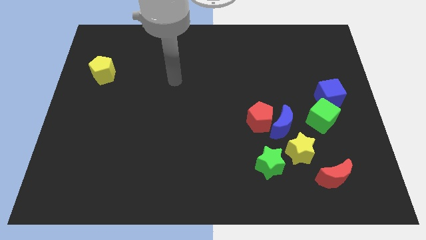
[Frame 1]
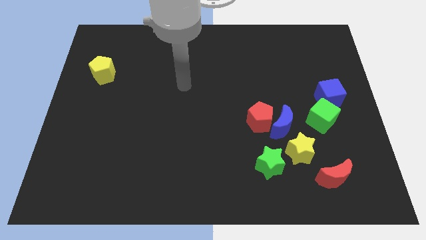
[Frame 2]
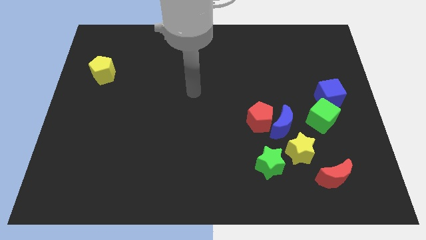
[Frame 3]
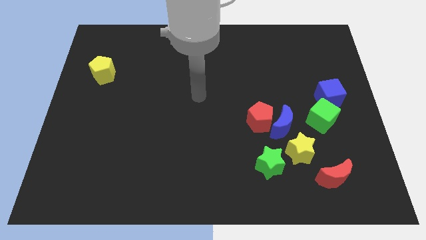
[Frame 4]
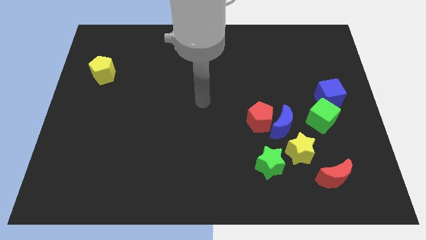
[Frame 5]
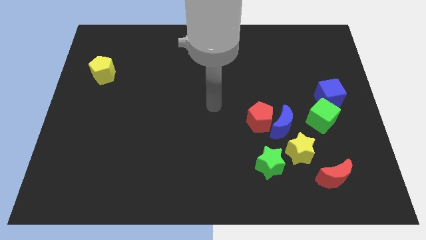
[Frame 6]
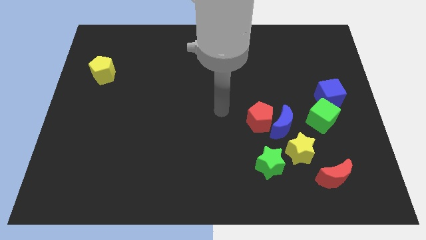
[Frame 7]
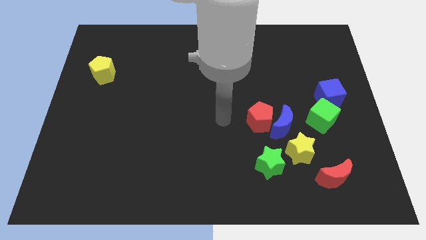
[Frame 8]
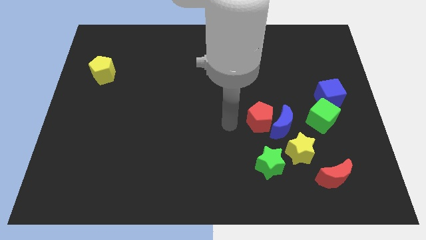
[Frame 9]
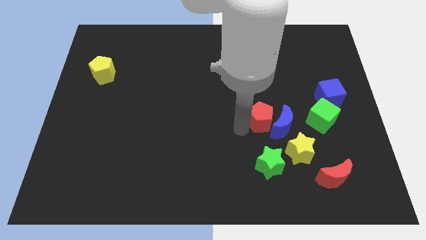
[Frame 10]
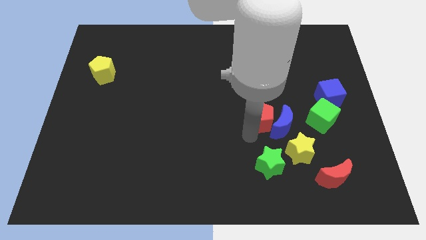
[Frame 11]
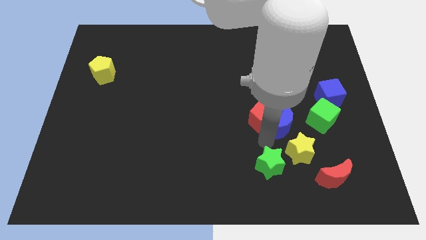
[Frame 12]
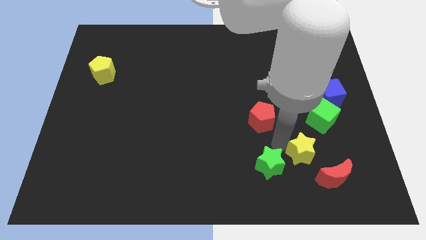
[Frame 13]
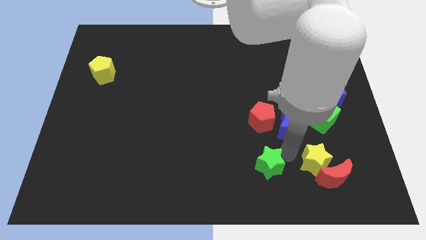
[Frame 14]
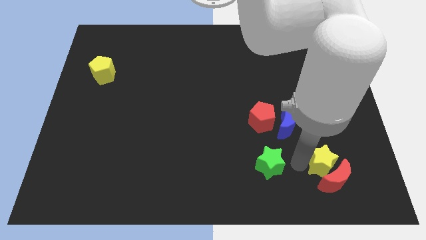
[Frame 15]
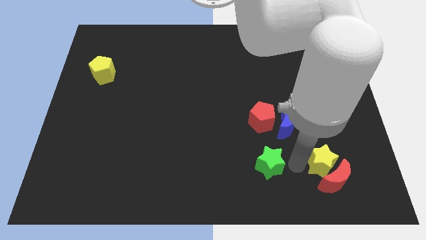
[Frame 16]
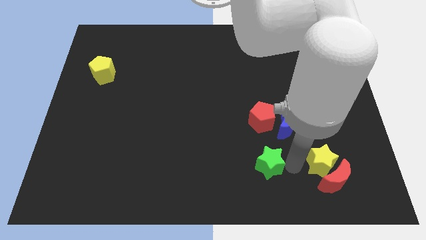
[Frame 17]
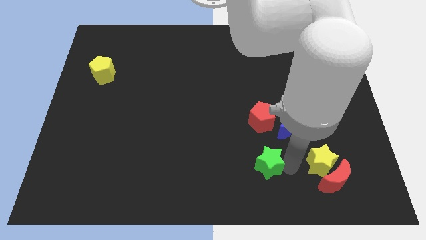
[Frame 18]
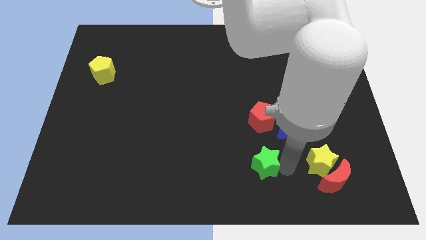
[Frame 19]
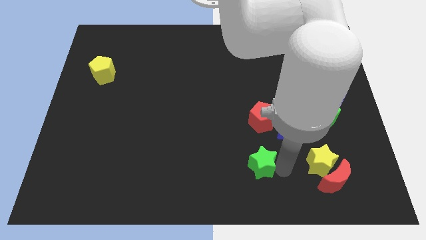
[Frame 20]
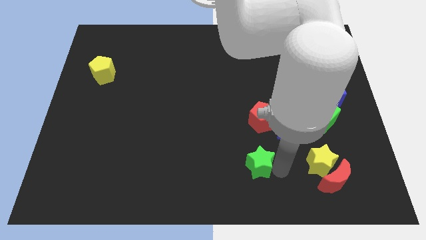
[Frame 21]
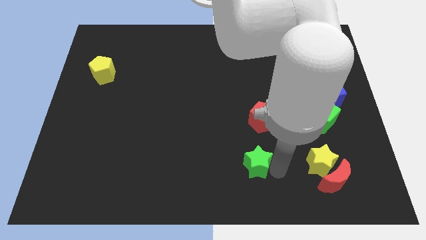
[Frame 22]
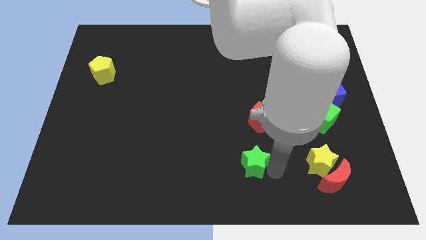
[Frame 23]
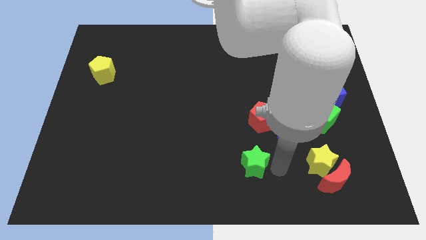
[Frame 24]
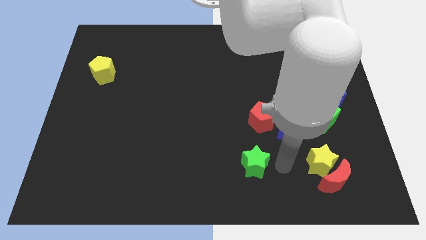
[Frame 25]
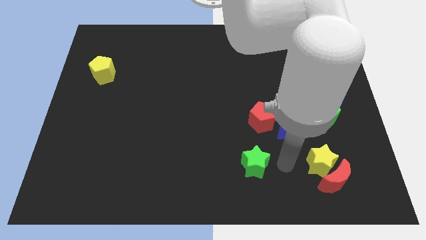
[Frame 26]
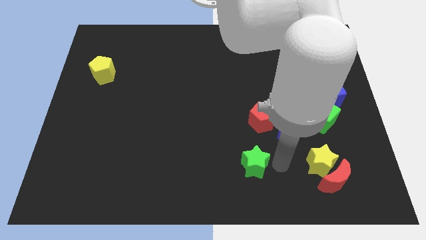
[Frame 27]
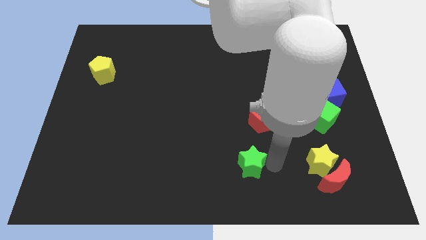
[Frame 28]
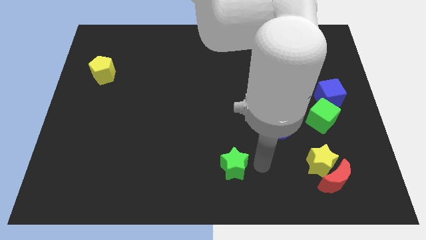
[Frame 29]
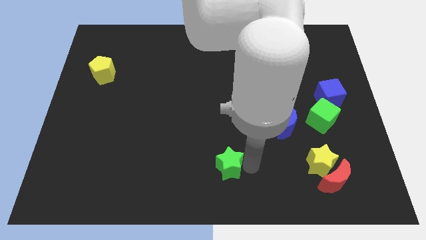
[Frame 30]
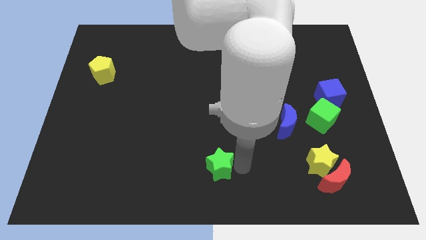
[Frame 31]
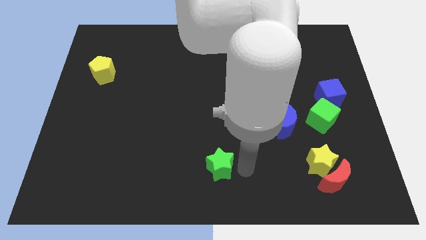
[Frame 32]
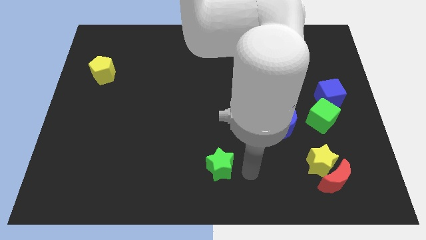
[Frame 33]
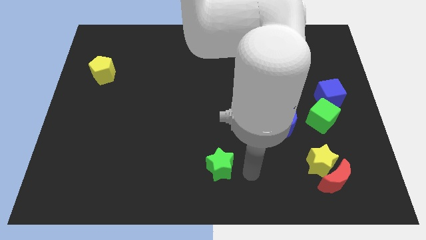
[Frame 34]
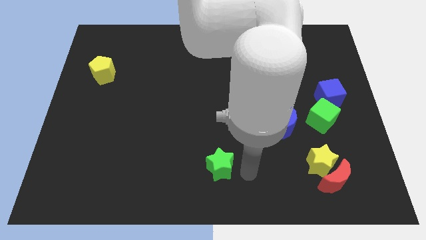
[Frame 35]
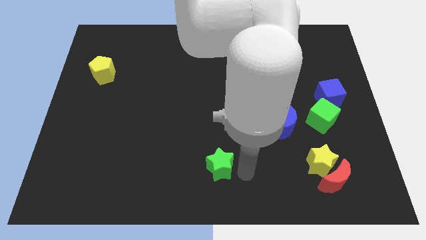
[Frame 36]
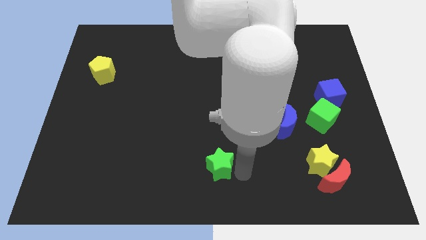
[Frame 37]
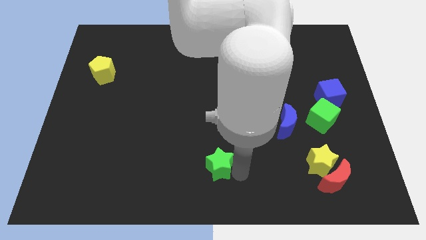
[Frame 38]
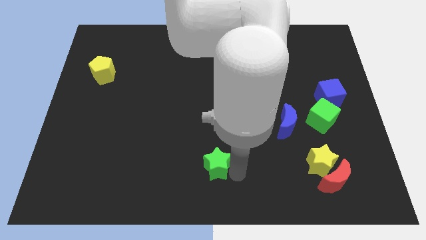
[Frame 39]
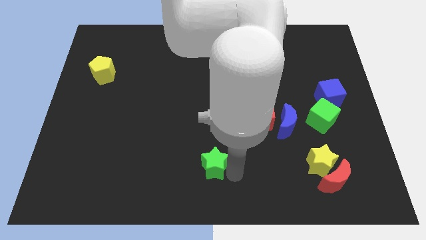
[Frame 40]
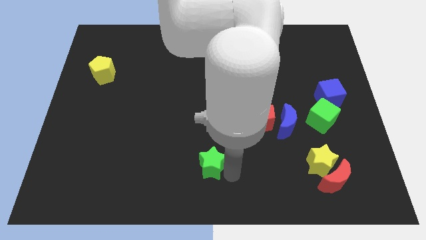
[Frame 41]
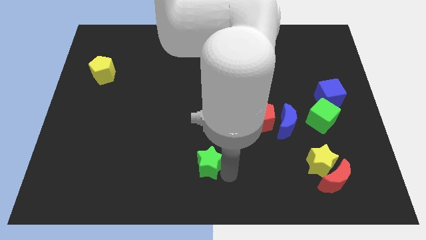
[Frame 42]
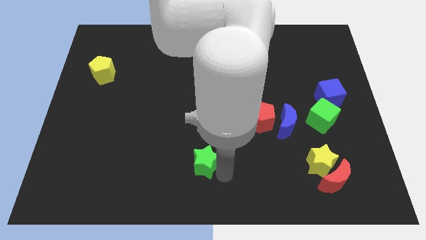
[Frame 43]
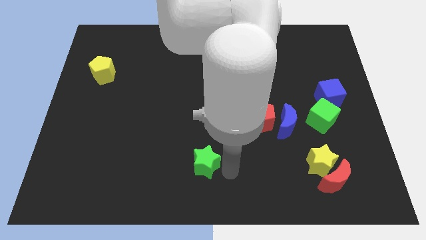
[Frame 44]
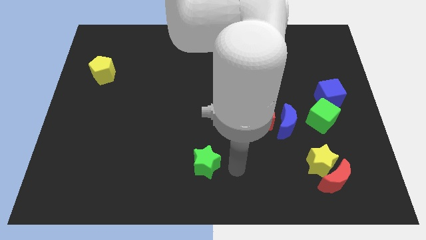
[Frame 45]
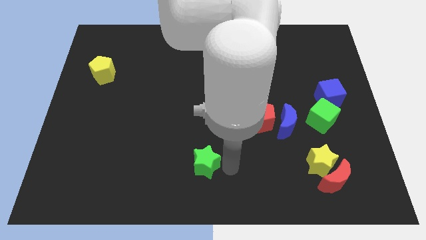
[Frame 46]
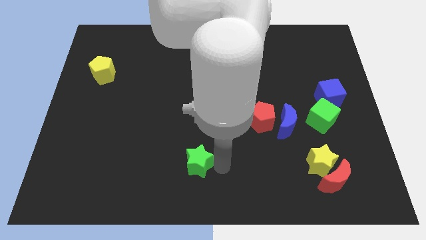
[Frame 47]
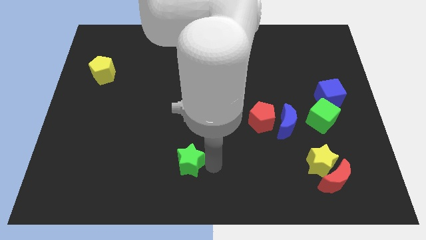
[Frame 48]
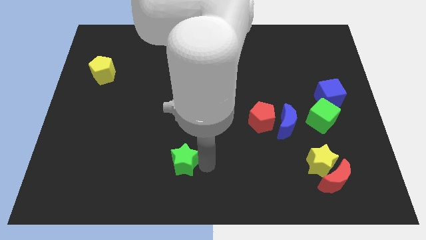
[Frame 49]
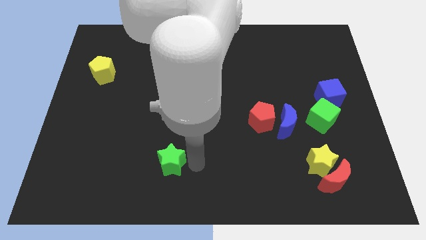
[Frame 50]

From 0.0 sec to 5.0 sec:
move the green star to the left

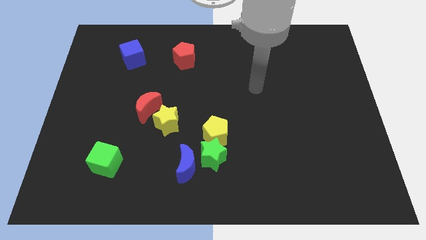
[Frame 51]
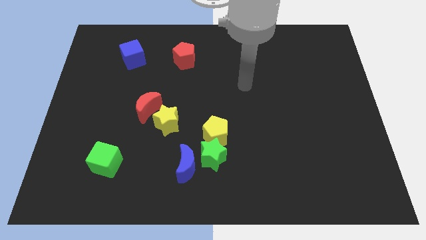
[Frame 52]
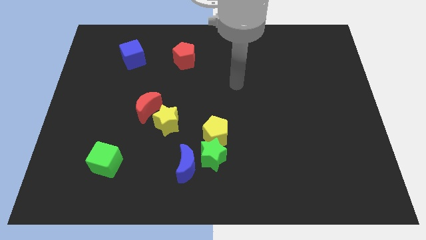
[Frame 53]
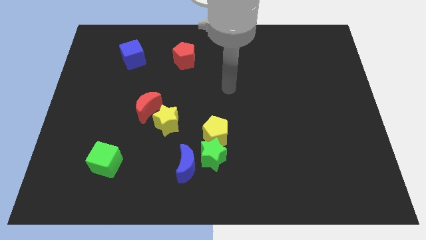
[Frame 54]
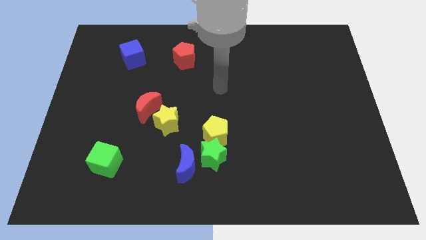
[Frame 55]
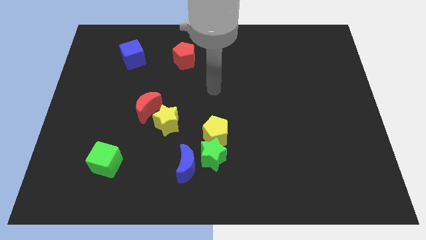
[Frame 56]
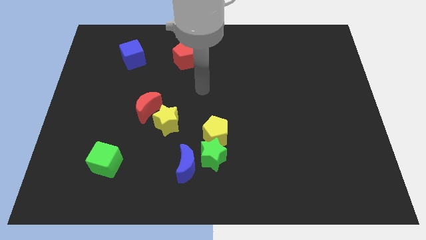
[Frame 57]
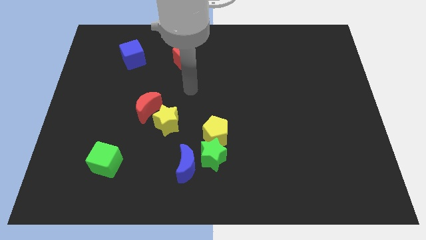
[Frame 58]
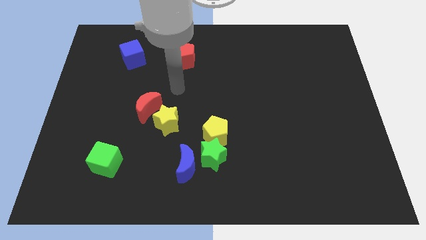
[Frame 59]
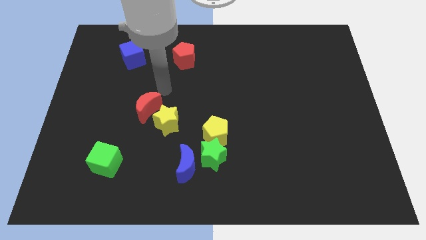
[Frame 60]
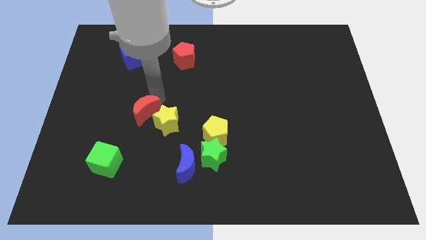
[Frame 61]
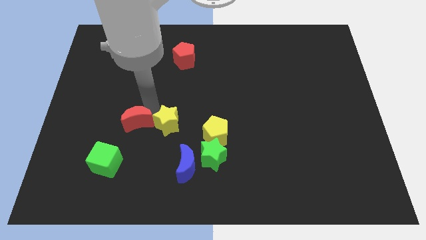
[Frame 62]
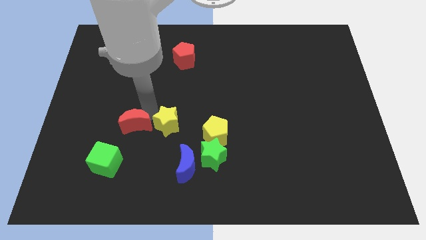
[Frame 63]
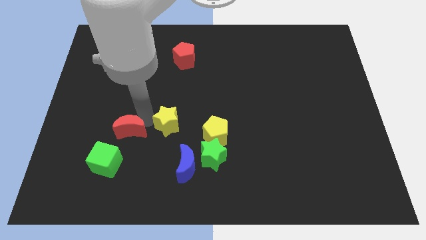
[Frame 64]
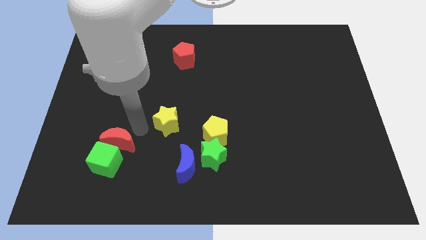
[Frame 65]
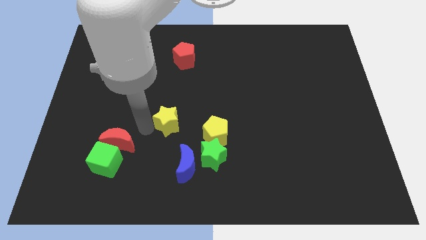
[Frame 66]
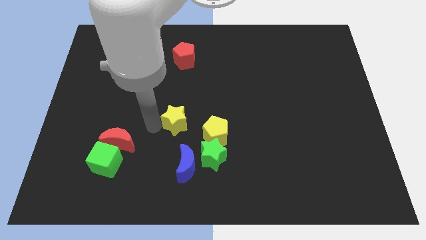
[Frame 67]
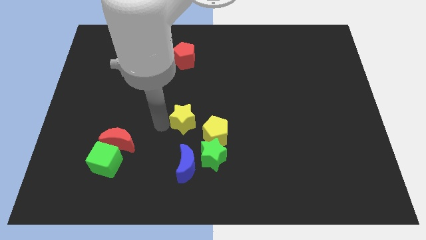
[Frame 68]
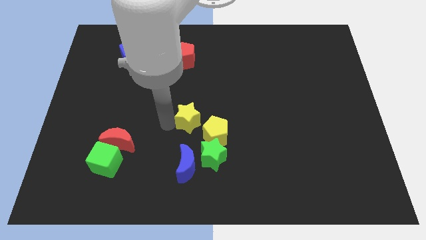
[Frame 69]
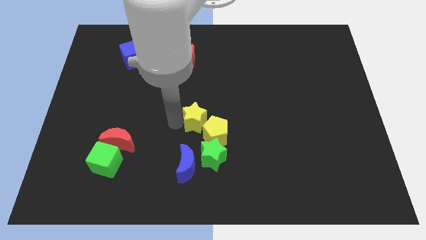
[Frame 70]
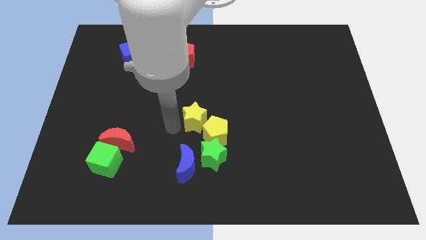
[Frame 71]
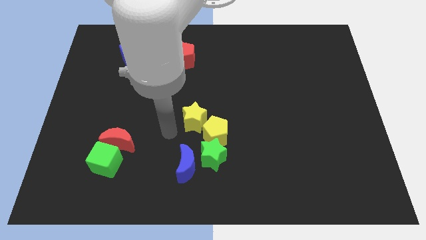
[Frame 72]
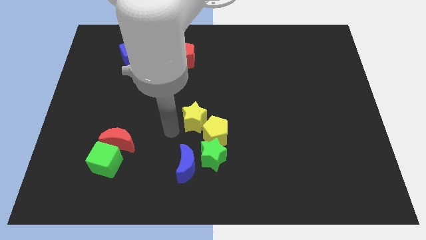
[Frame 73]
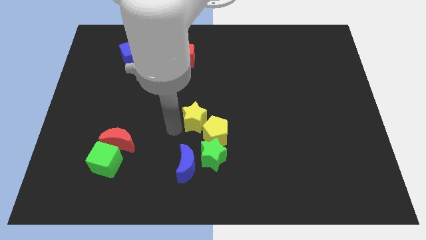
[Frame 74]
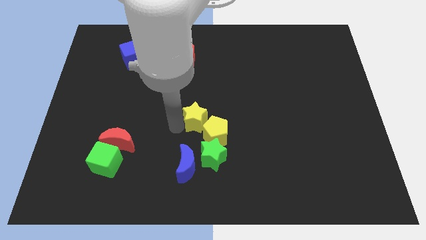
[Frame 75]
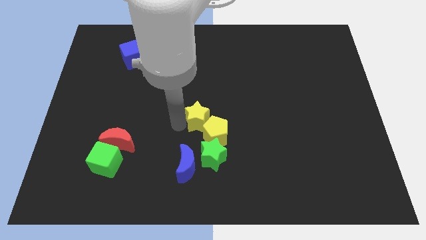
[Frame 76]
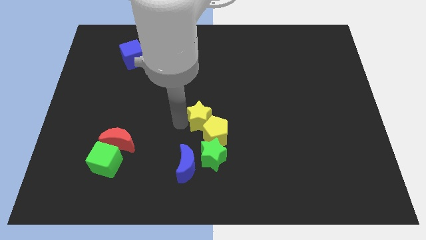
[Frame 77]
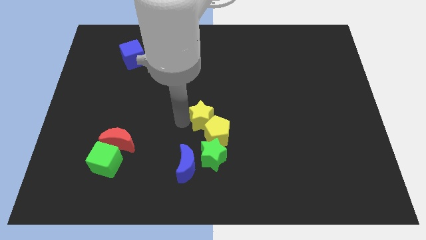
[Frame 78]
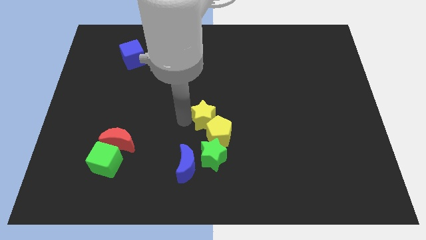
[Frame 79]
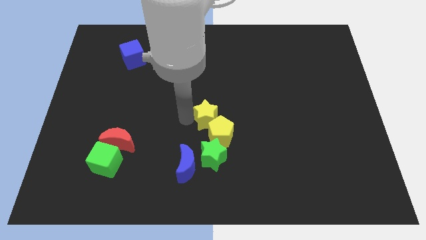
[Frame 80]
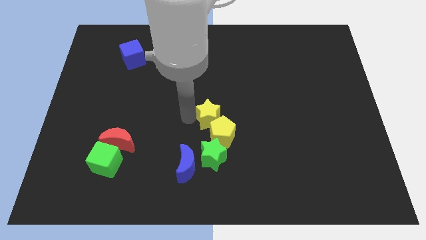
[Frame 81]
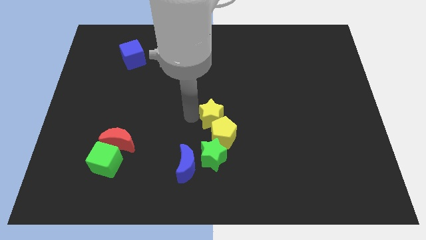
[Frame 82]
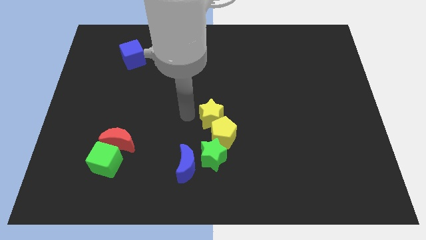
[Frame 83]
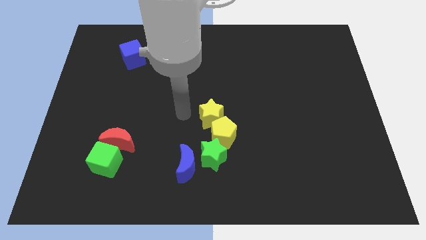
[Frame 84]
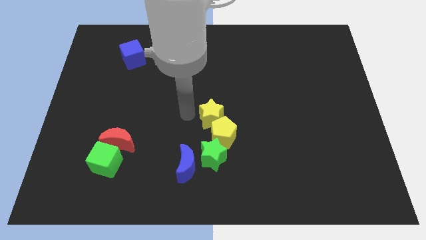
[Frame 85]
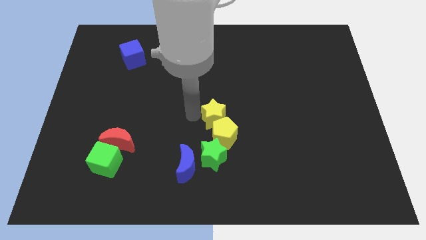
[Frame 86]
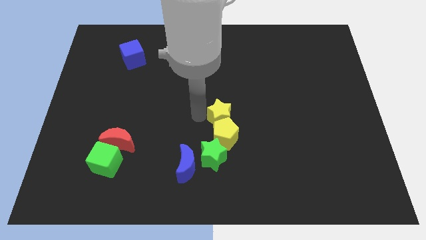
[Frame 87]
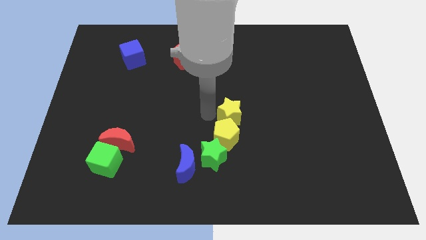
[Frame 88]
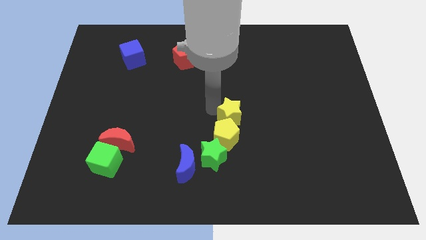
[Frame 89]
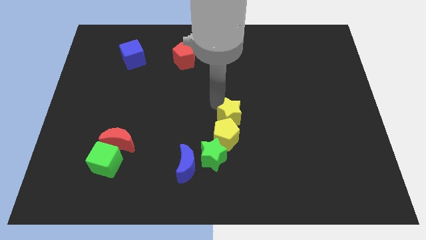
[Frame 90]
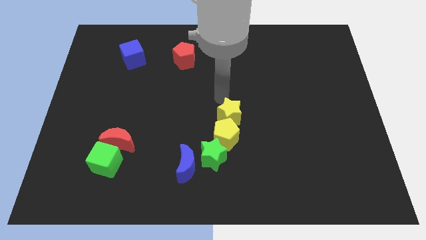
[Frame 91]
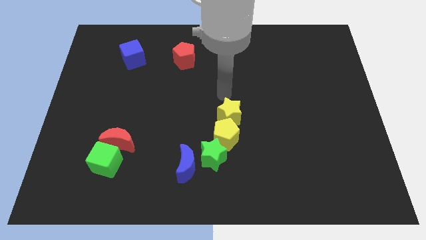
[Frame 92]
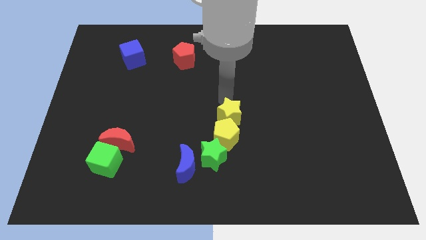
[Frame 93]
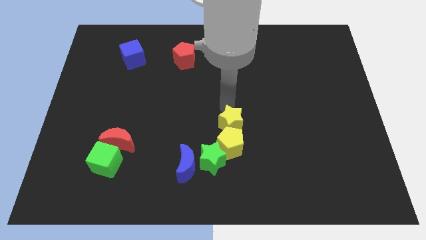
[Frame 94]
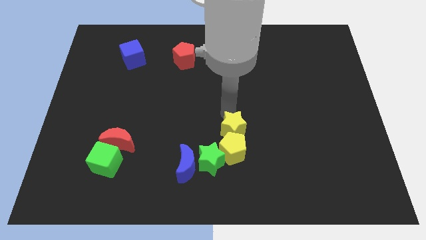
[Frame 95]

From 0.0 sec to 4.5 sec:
push the yellow star down and to the right a little bit
